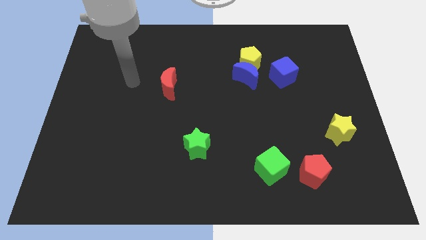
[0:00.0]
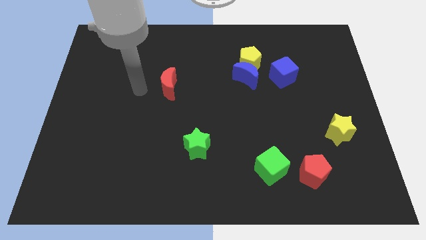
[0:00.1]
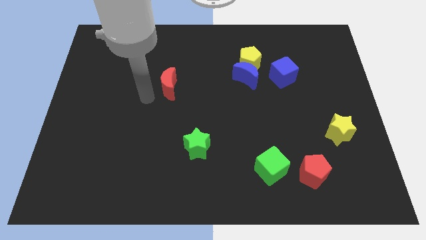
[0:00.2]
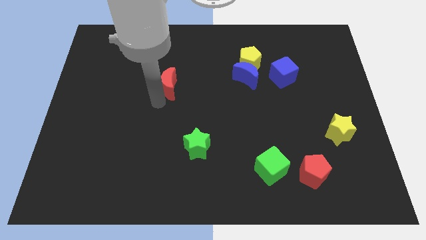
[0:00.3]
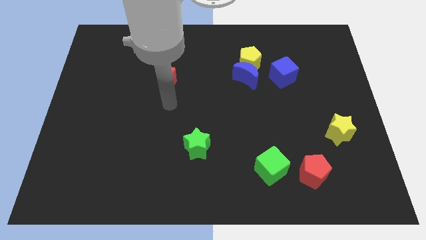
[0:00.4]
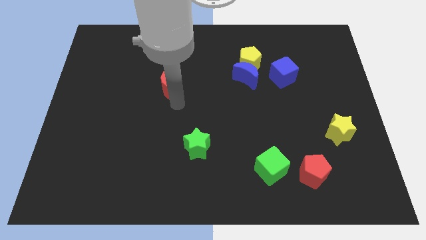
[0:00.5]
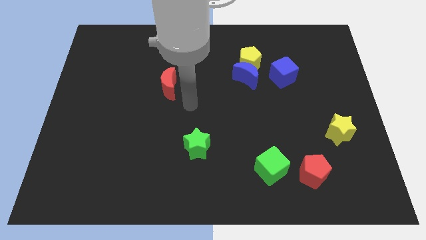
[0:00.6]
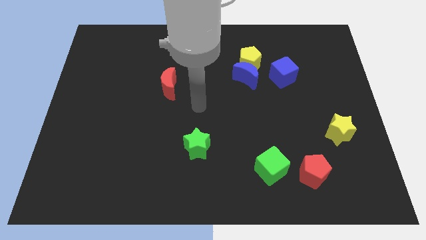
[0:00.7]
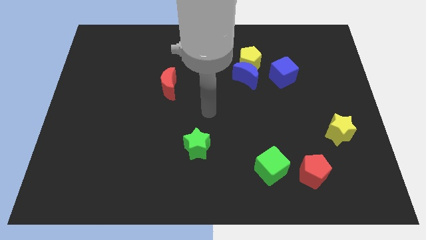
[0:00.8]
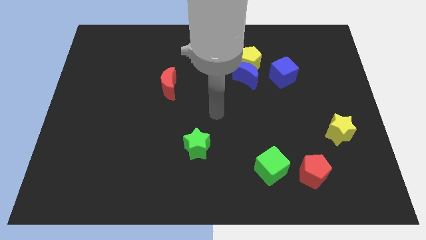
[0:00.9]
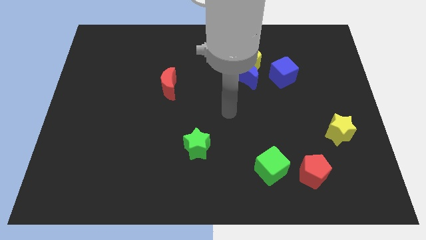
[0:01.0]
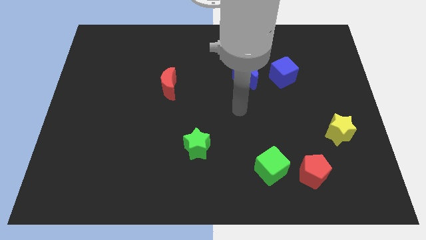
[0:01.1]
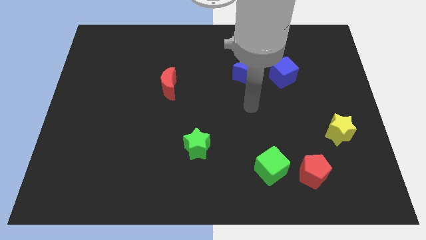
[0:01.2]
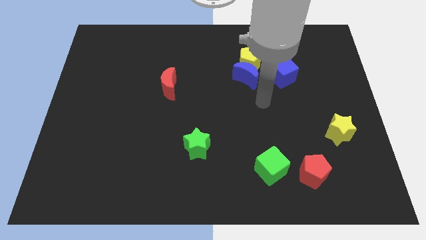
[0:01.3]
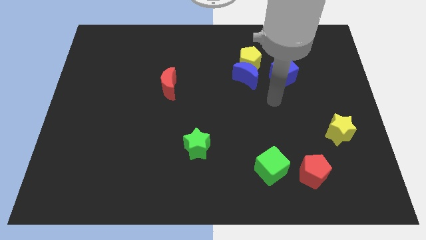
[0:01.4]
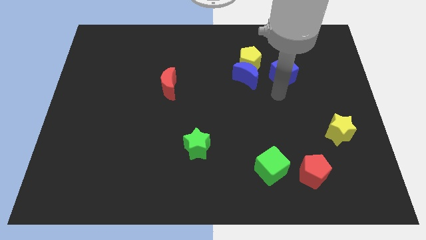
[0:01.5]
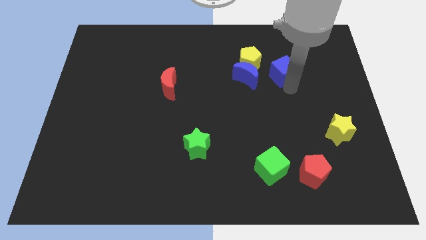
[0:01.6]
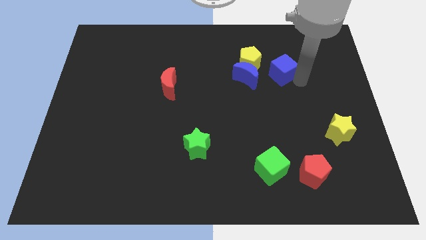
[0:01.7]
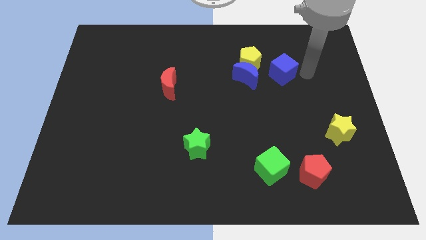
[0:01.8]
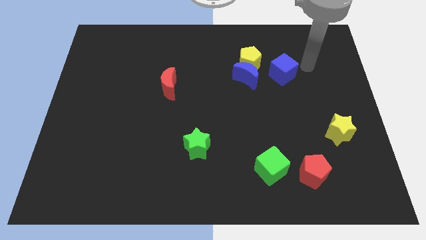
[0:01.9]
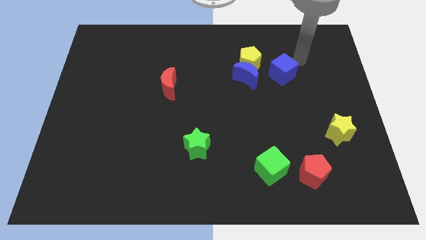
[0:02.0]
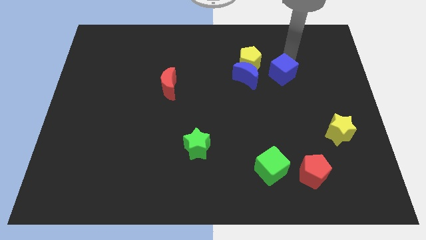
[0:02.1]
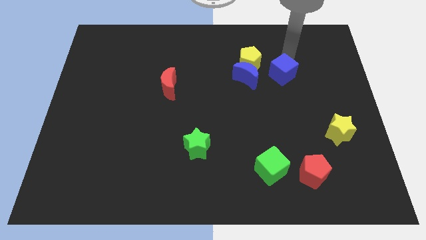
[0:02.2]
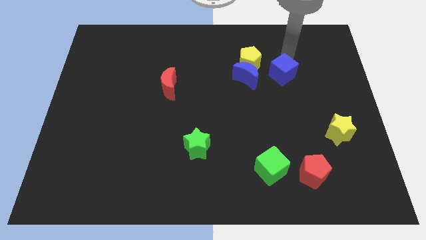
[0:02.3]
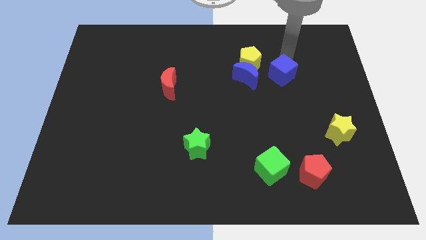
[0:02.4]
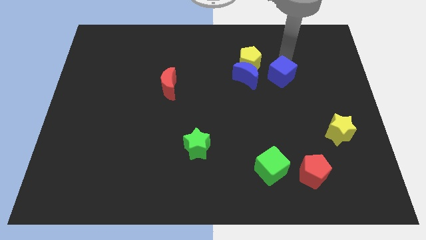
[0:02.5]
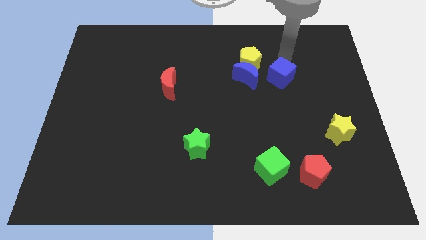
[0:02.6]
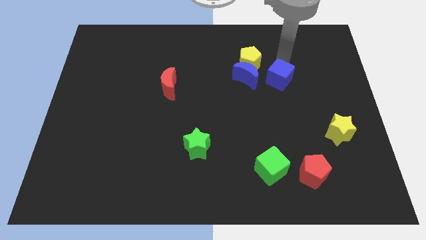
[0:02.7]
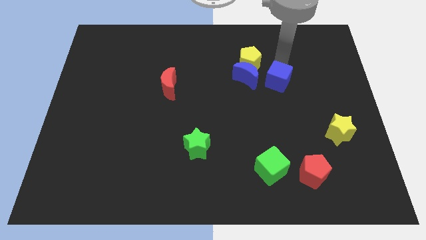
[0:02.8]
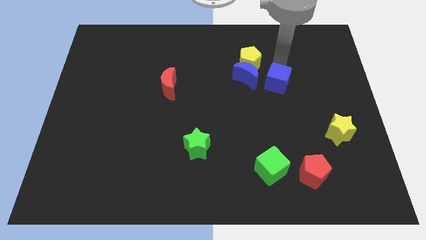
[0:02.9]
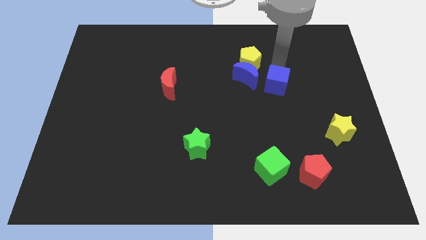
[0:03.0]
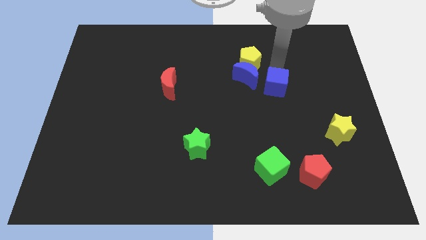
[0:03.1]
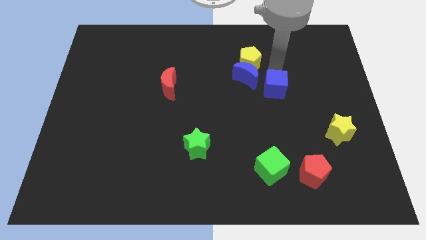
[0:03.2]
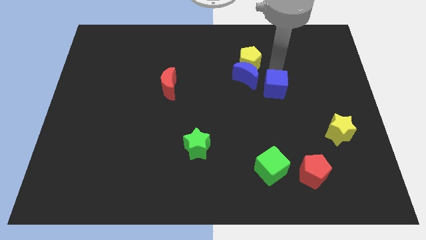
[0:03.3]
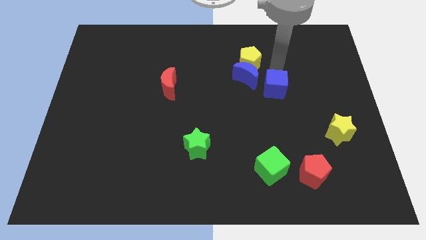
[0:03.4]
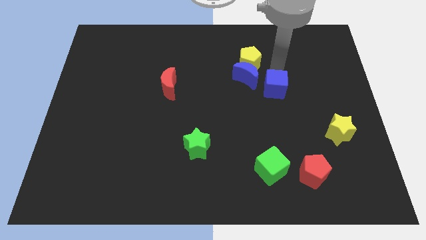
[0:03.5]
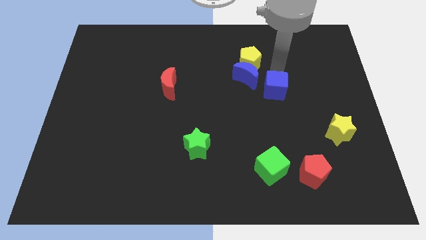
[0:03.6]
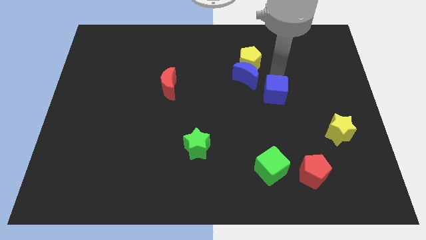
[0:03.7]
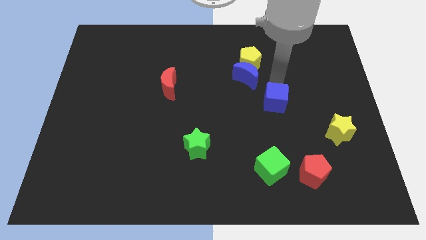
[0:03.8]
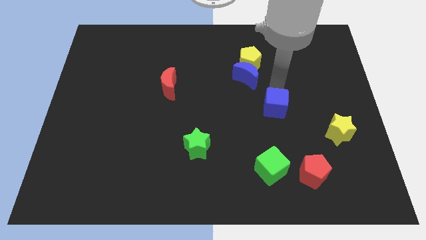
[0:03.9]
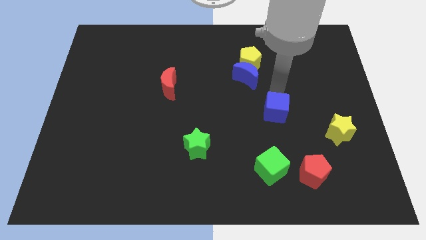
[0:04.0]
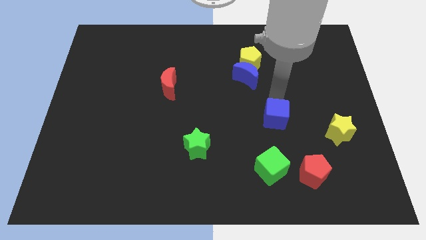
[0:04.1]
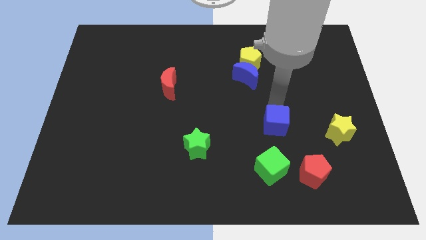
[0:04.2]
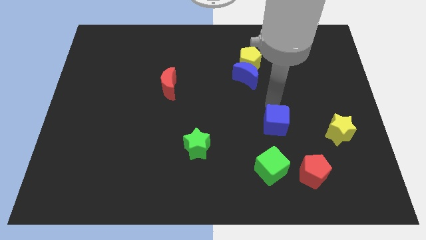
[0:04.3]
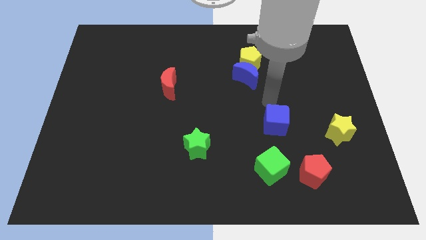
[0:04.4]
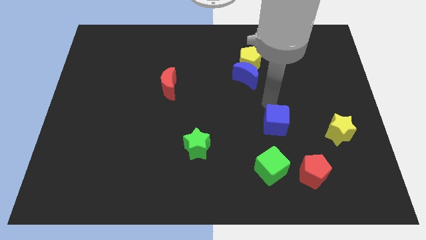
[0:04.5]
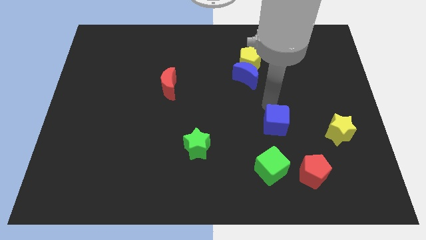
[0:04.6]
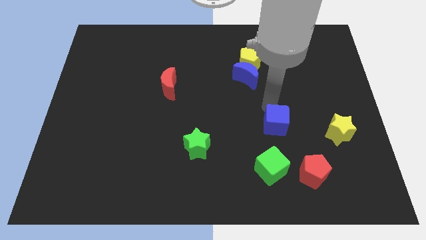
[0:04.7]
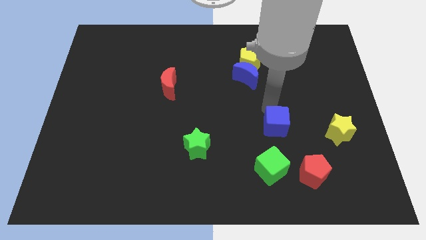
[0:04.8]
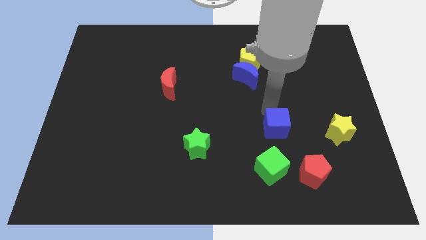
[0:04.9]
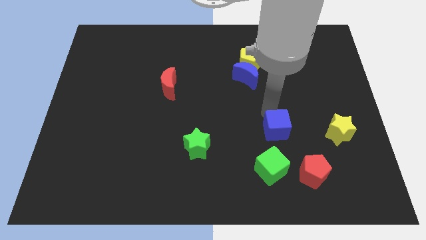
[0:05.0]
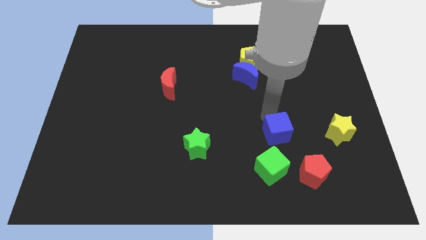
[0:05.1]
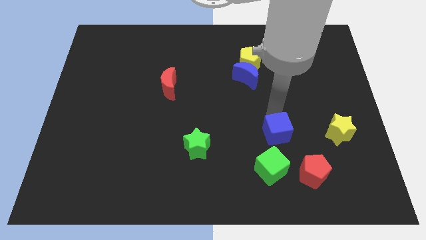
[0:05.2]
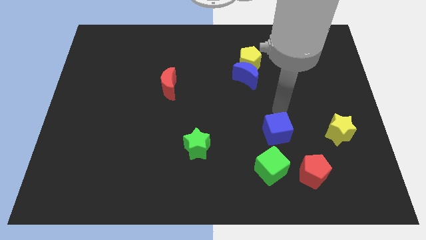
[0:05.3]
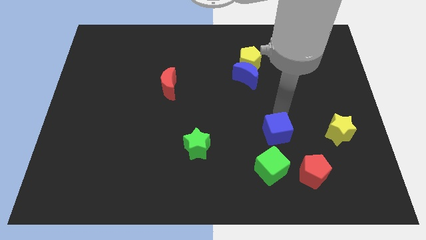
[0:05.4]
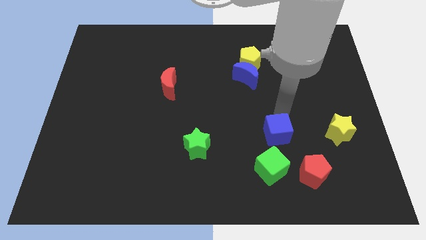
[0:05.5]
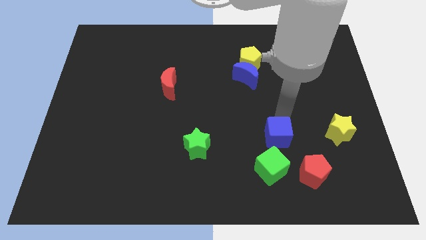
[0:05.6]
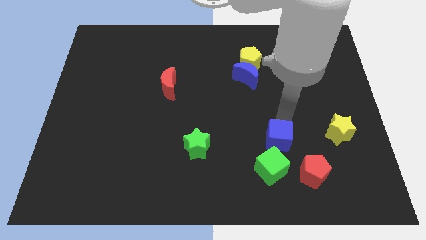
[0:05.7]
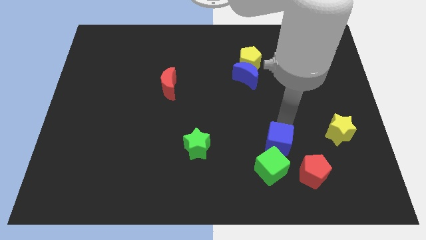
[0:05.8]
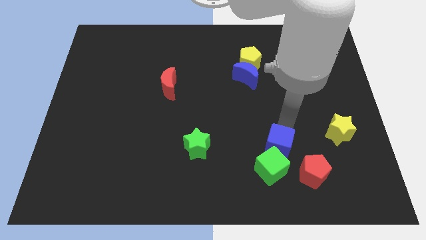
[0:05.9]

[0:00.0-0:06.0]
push the blue cube to the green cube

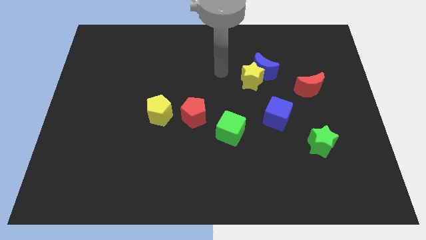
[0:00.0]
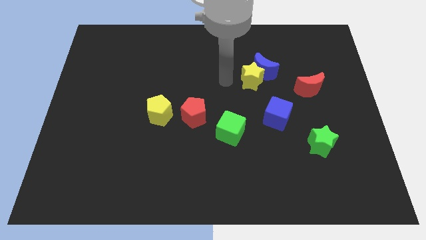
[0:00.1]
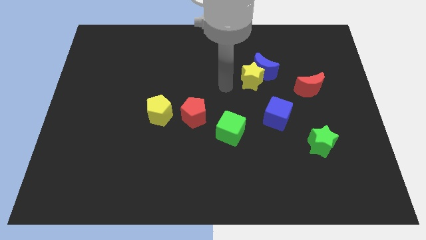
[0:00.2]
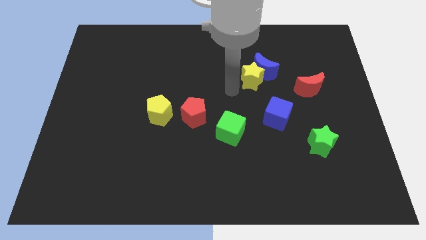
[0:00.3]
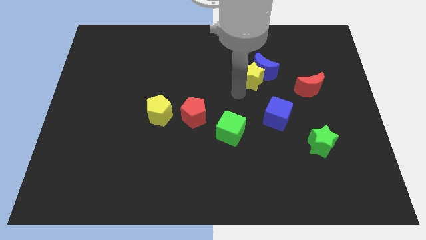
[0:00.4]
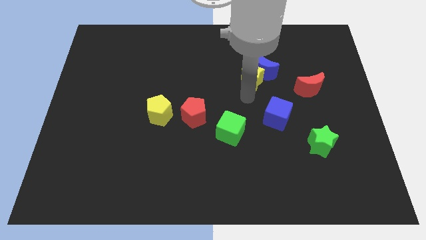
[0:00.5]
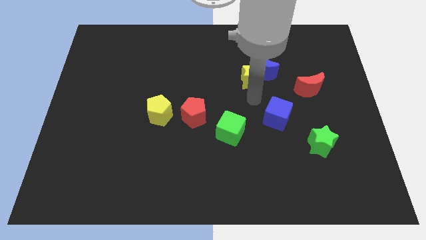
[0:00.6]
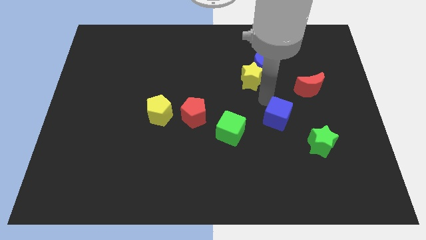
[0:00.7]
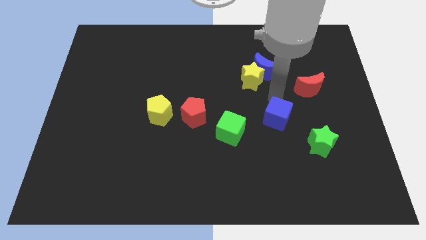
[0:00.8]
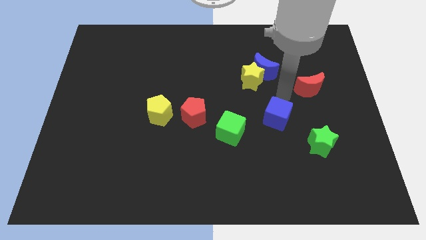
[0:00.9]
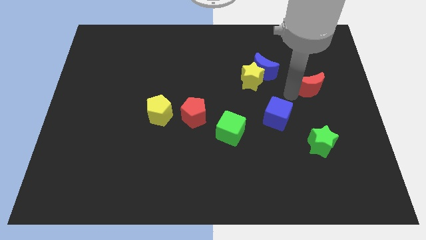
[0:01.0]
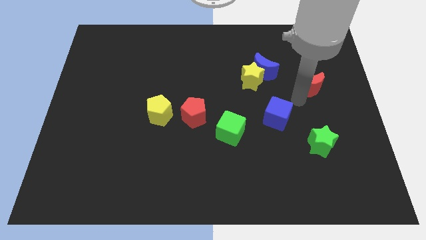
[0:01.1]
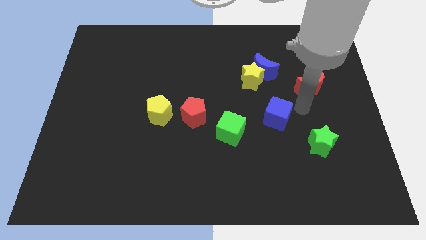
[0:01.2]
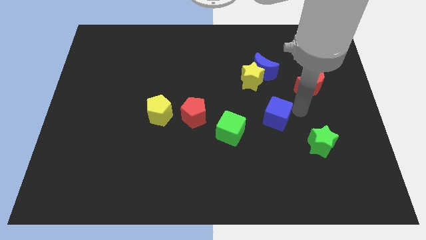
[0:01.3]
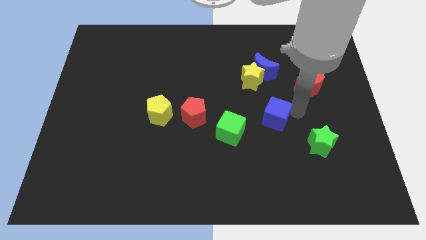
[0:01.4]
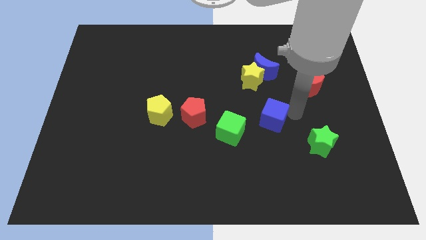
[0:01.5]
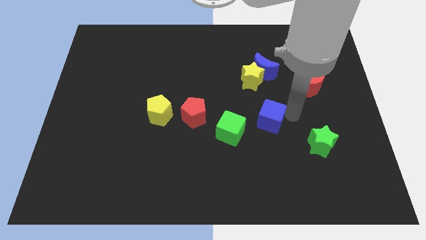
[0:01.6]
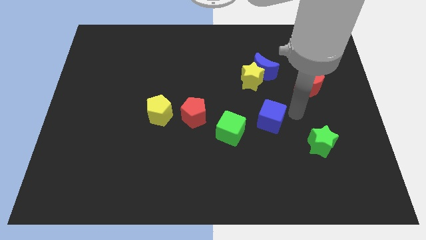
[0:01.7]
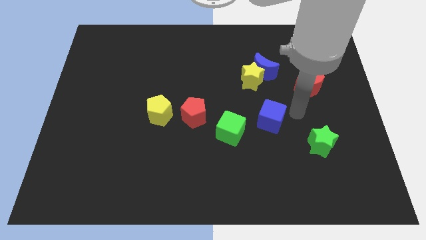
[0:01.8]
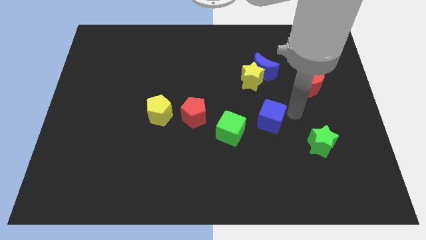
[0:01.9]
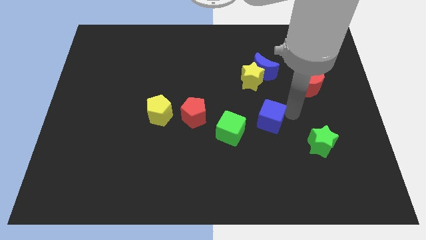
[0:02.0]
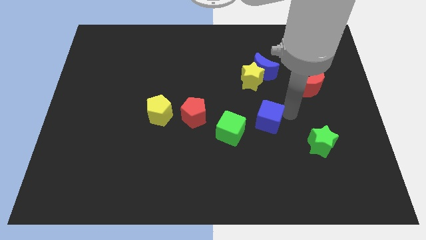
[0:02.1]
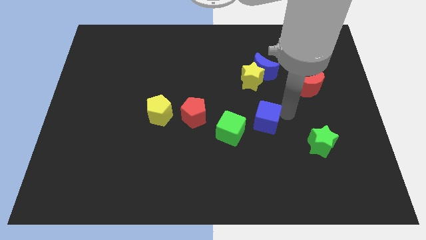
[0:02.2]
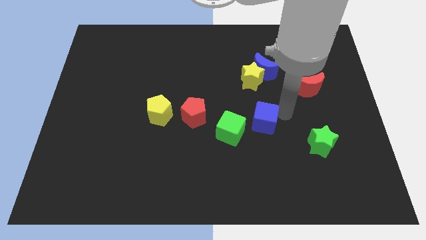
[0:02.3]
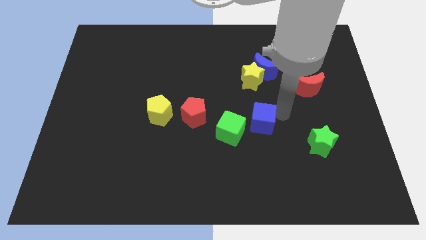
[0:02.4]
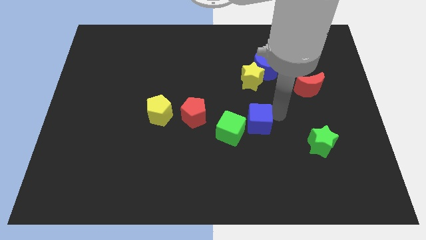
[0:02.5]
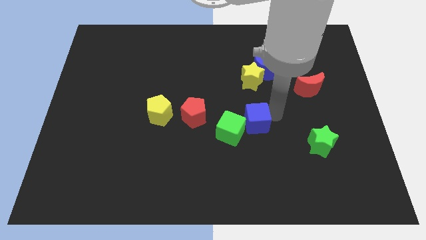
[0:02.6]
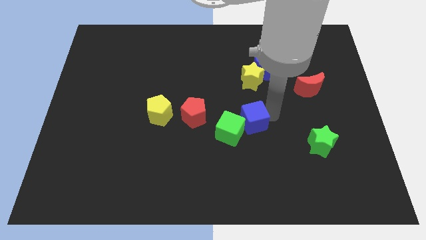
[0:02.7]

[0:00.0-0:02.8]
move the blue cube close to the green cube
